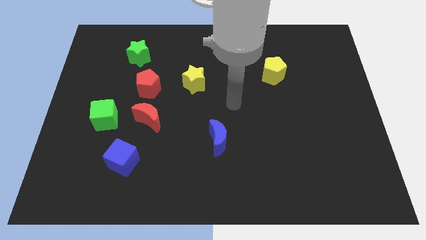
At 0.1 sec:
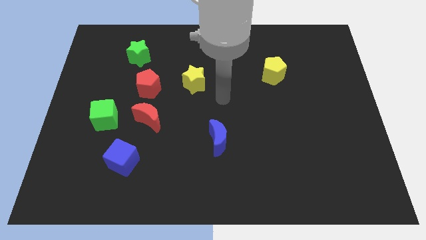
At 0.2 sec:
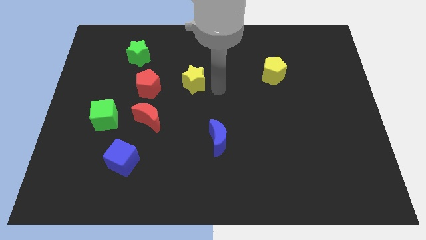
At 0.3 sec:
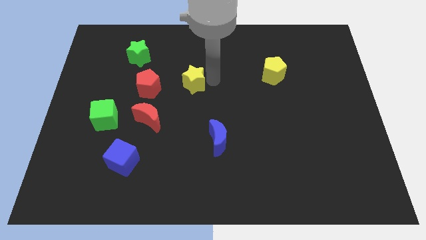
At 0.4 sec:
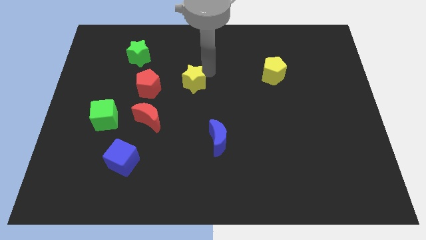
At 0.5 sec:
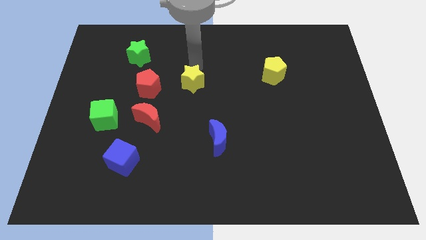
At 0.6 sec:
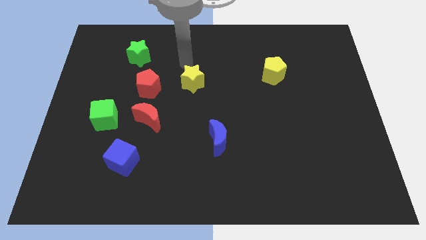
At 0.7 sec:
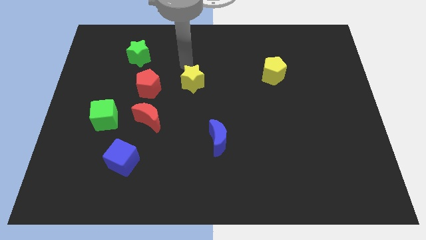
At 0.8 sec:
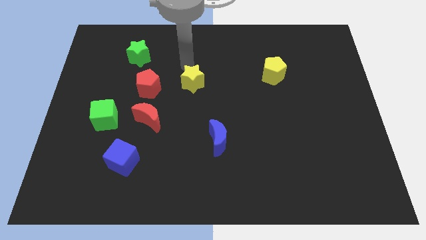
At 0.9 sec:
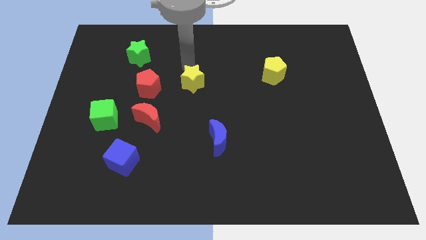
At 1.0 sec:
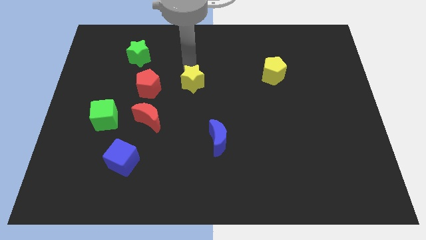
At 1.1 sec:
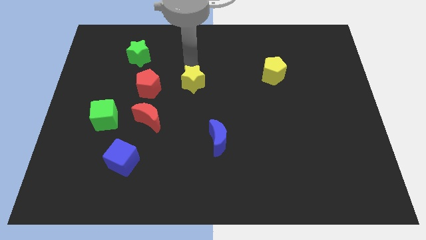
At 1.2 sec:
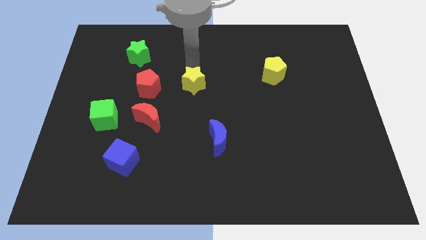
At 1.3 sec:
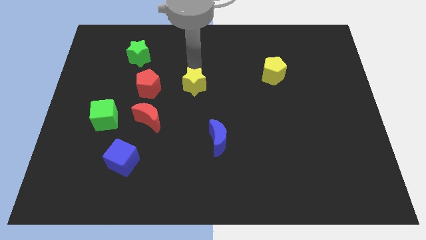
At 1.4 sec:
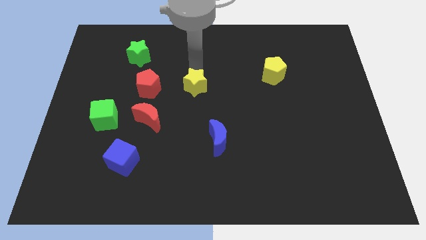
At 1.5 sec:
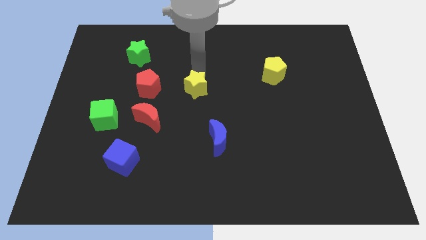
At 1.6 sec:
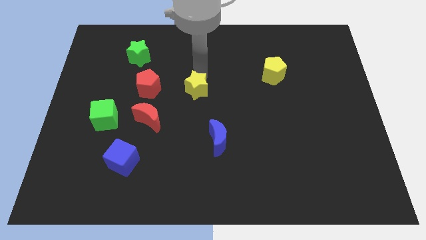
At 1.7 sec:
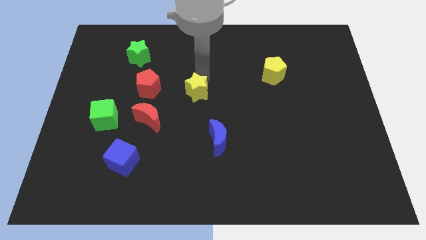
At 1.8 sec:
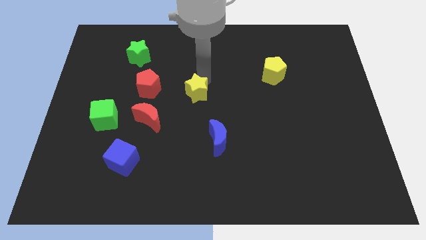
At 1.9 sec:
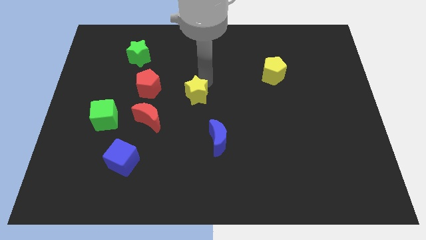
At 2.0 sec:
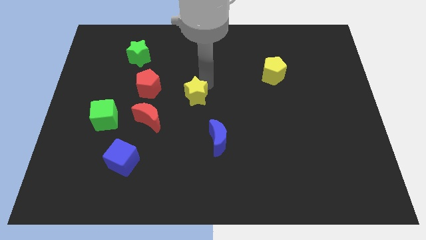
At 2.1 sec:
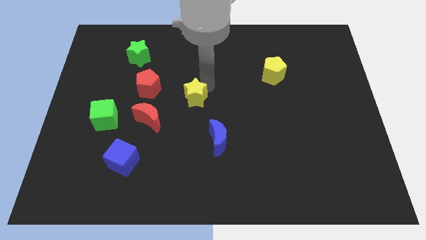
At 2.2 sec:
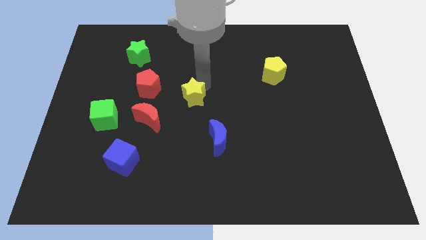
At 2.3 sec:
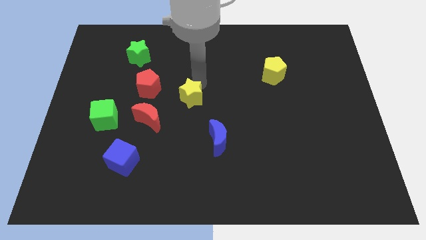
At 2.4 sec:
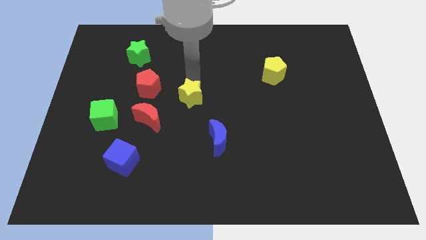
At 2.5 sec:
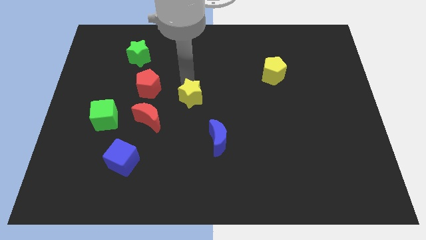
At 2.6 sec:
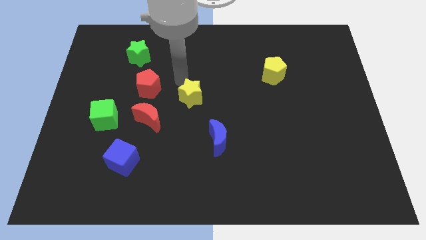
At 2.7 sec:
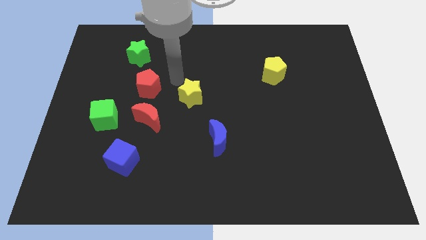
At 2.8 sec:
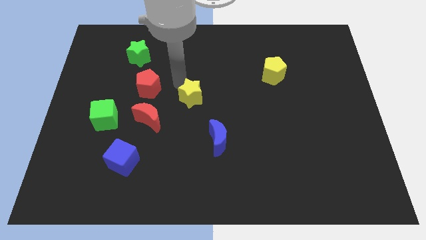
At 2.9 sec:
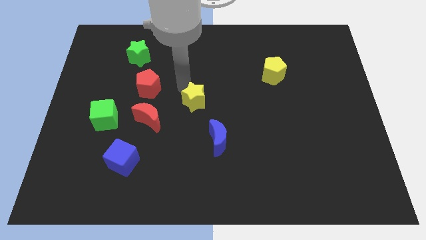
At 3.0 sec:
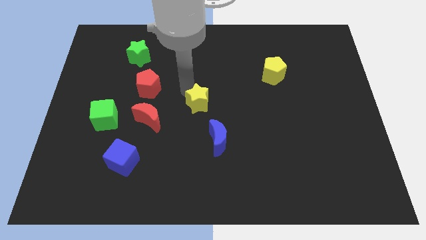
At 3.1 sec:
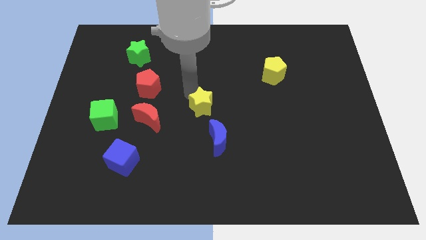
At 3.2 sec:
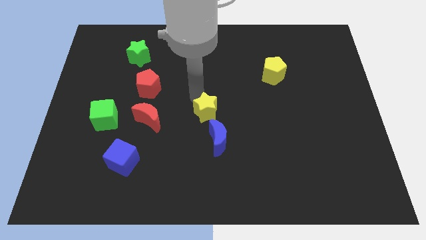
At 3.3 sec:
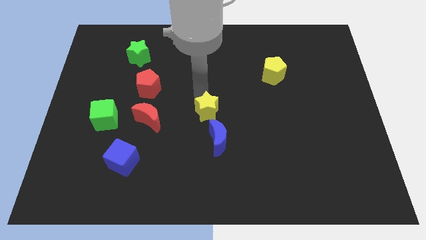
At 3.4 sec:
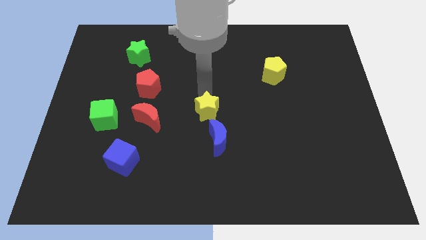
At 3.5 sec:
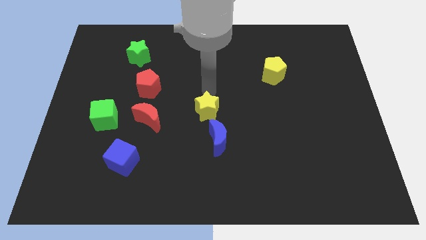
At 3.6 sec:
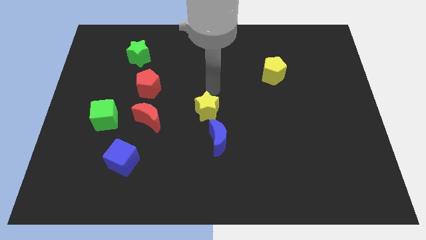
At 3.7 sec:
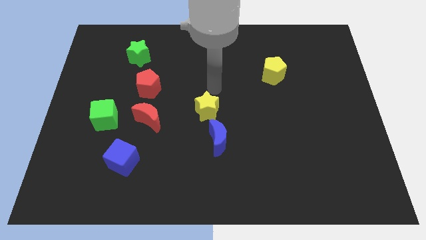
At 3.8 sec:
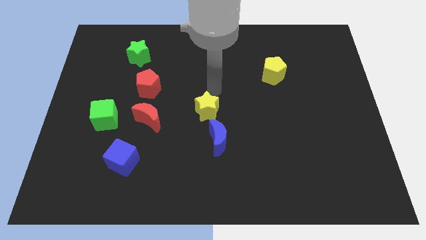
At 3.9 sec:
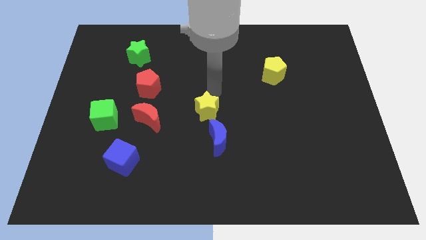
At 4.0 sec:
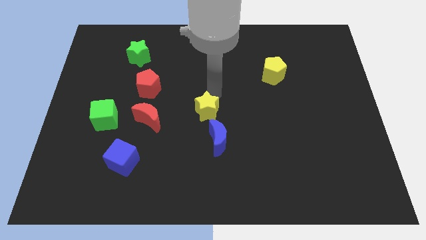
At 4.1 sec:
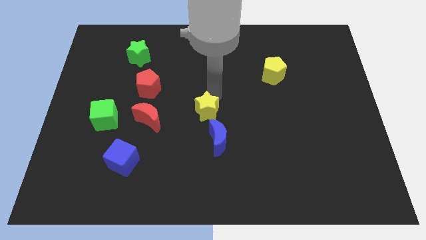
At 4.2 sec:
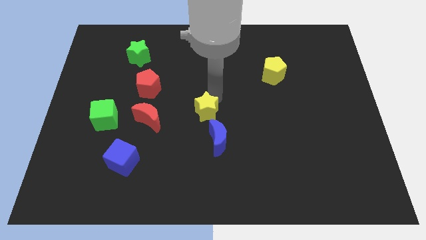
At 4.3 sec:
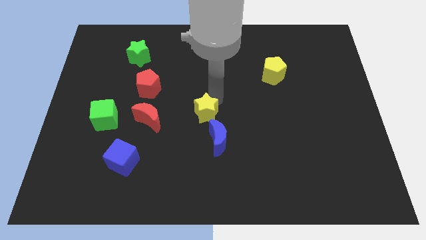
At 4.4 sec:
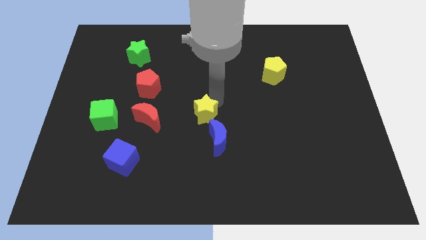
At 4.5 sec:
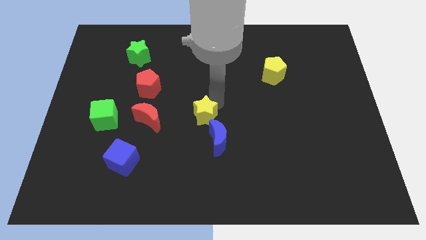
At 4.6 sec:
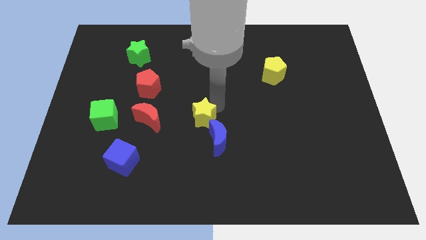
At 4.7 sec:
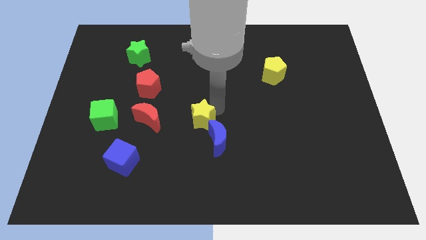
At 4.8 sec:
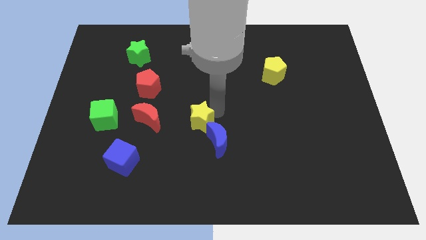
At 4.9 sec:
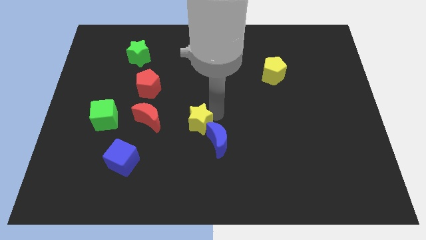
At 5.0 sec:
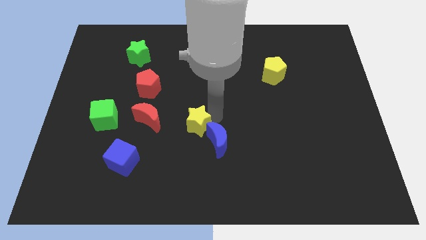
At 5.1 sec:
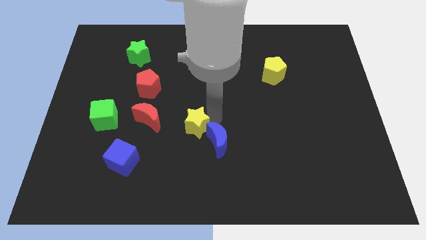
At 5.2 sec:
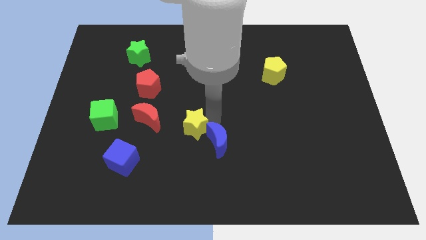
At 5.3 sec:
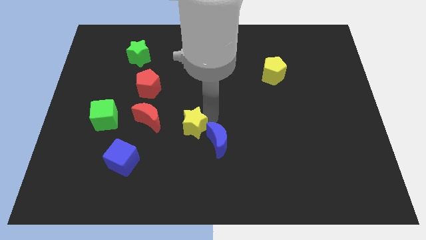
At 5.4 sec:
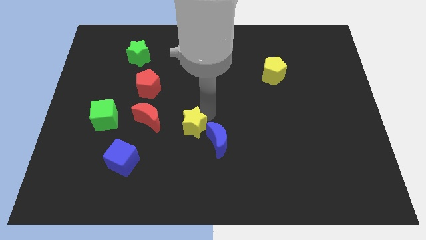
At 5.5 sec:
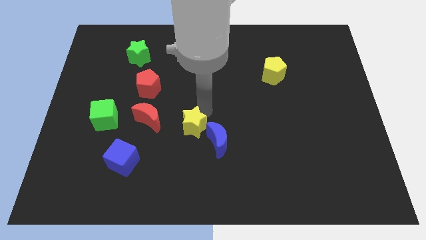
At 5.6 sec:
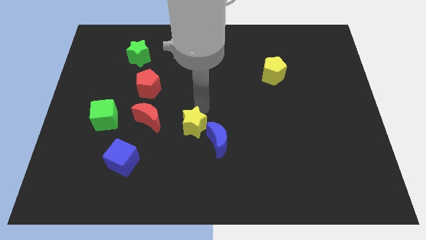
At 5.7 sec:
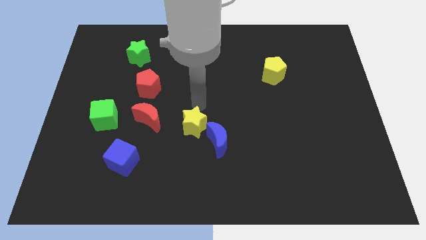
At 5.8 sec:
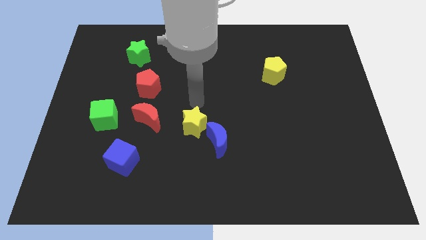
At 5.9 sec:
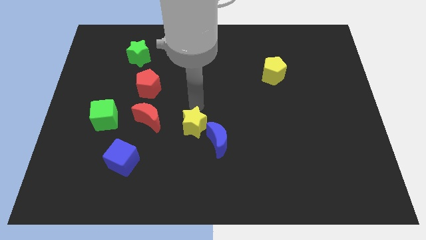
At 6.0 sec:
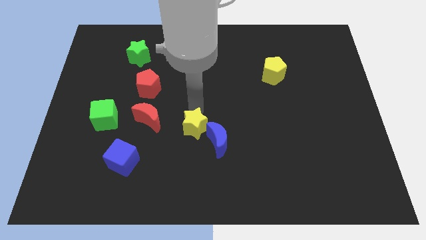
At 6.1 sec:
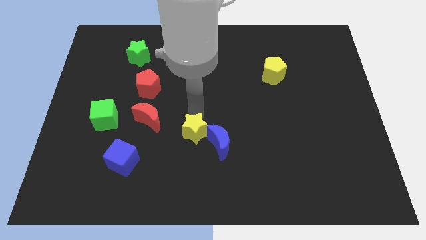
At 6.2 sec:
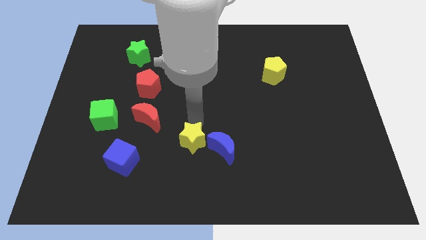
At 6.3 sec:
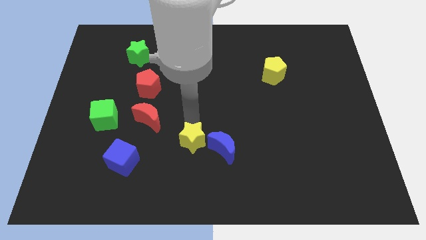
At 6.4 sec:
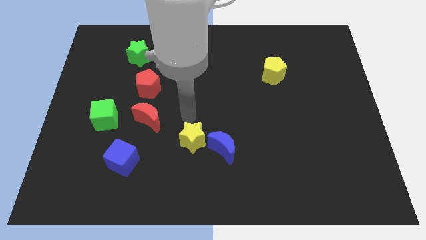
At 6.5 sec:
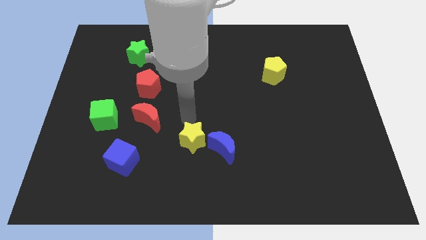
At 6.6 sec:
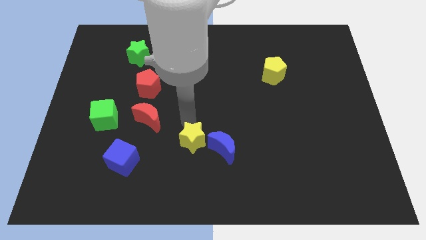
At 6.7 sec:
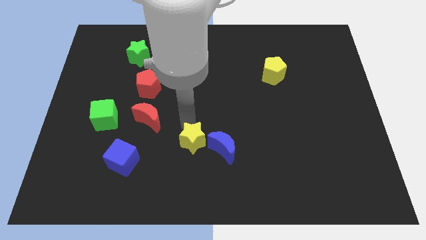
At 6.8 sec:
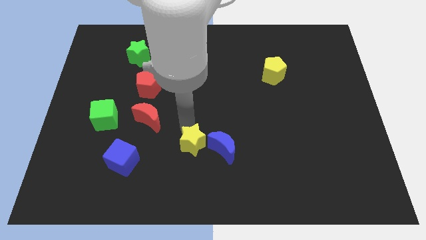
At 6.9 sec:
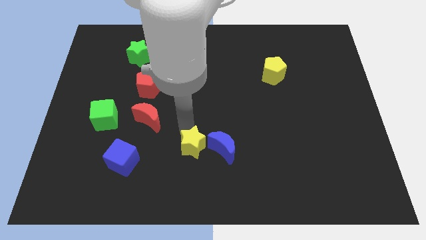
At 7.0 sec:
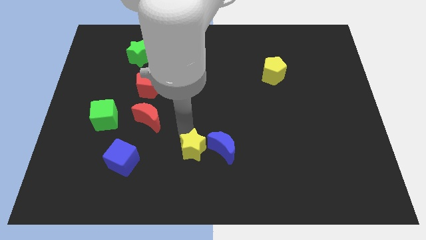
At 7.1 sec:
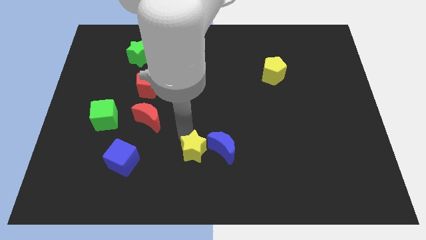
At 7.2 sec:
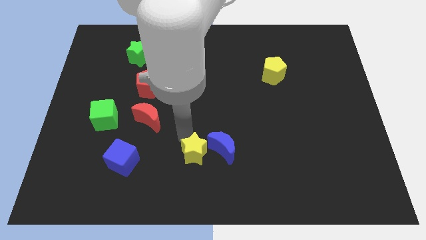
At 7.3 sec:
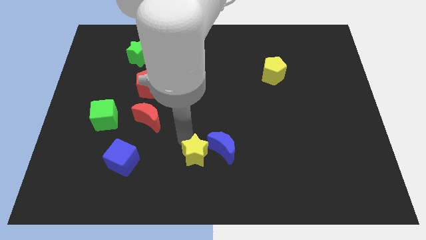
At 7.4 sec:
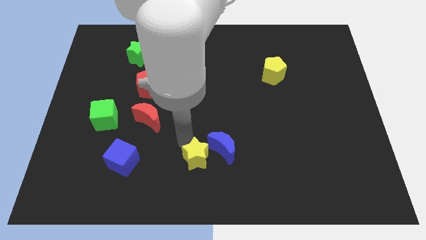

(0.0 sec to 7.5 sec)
move the yellow star to the bottom side
